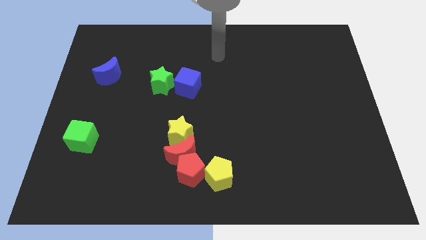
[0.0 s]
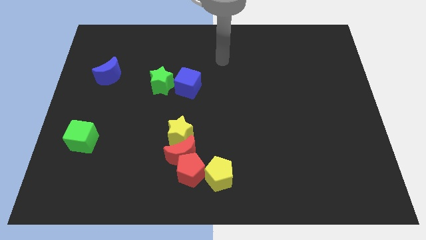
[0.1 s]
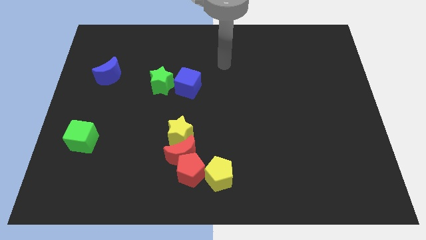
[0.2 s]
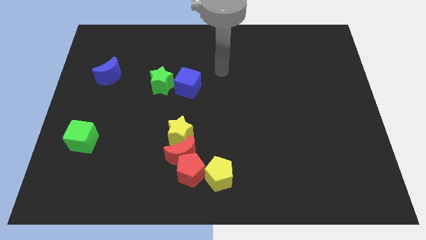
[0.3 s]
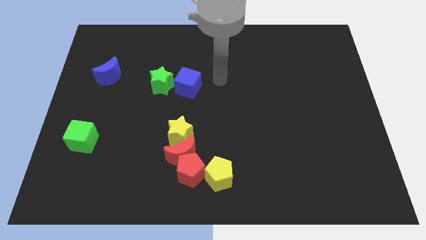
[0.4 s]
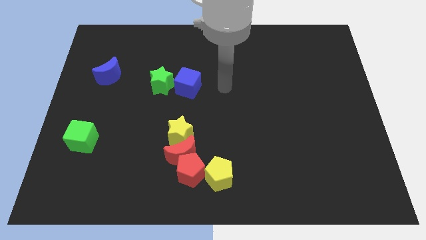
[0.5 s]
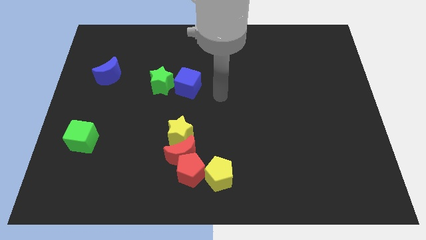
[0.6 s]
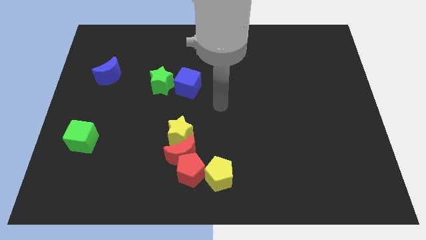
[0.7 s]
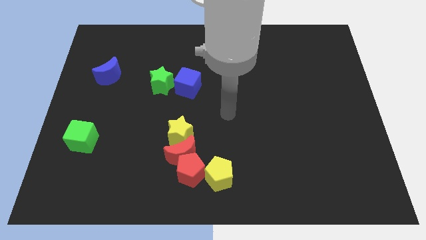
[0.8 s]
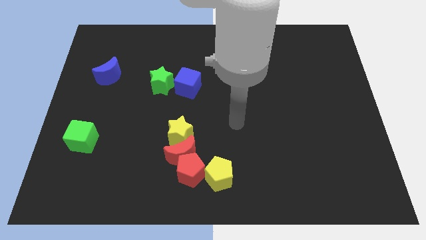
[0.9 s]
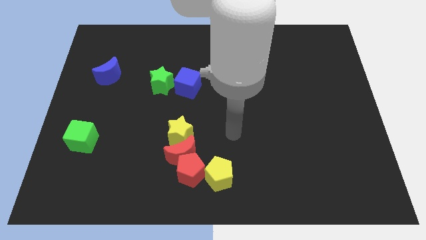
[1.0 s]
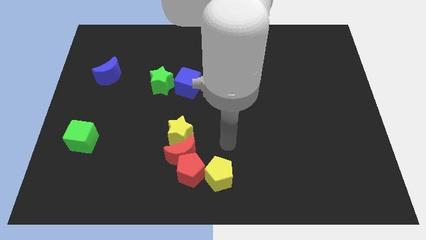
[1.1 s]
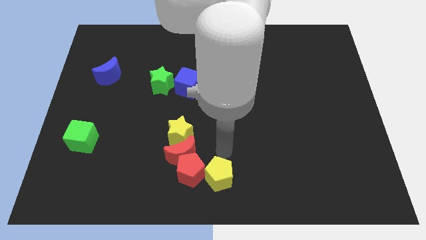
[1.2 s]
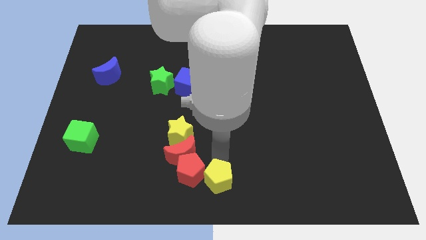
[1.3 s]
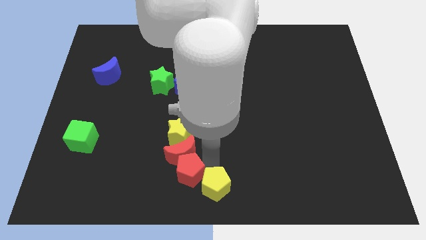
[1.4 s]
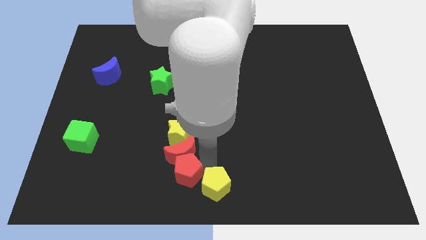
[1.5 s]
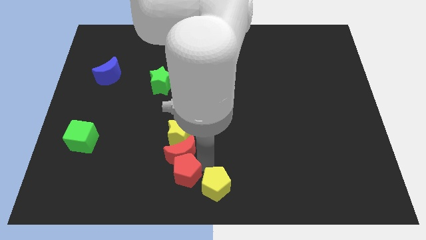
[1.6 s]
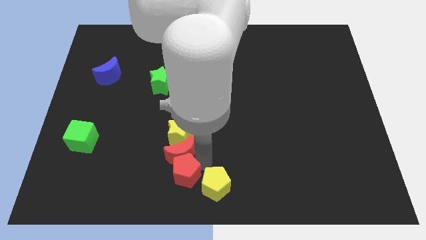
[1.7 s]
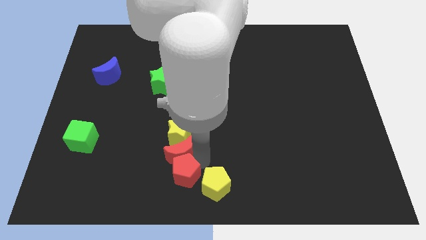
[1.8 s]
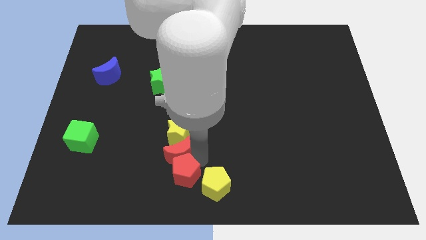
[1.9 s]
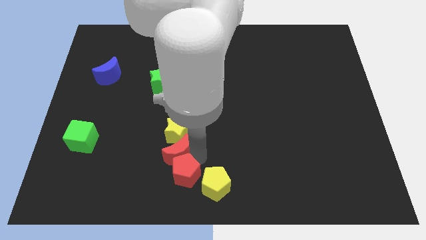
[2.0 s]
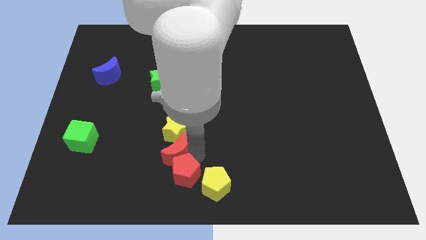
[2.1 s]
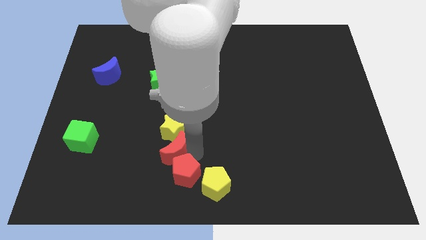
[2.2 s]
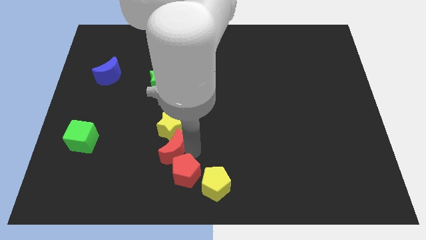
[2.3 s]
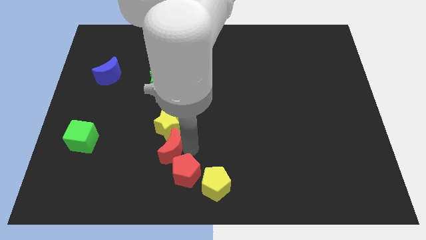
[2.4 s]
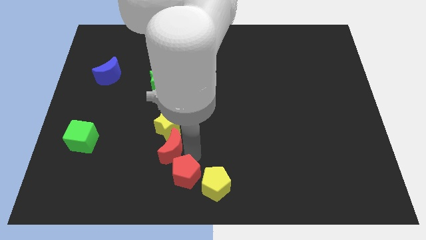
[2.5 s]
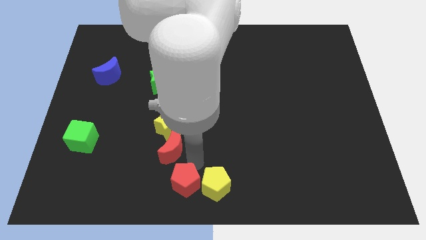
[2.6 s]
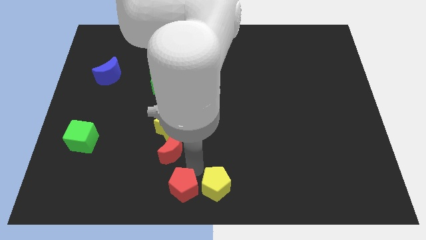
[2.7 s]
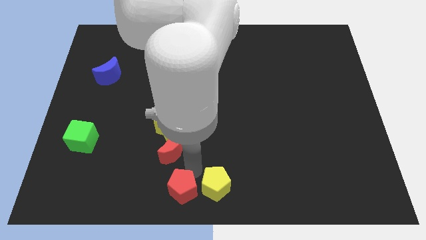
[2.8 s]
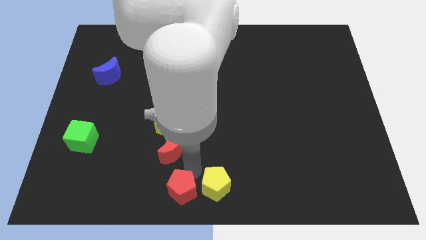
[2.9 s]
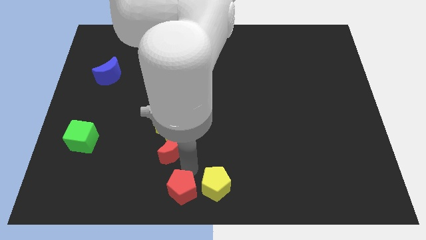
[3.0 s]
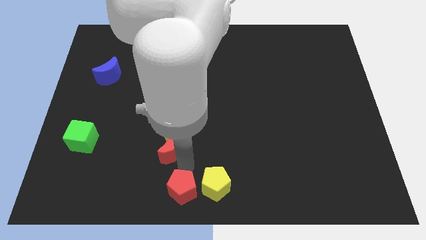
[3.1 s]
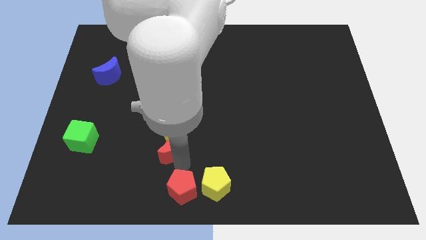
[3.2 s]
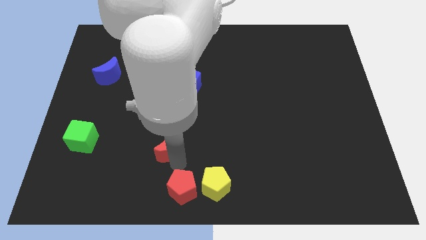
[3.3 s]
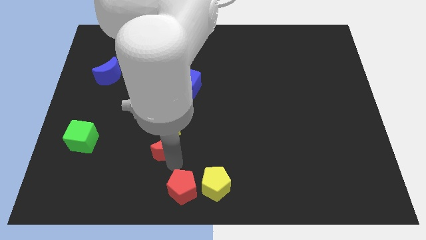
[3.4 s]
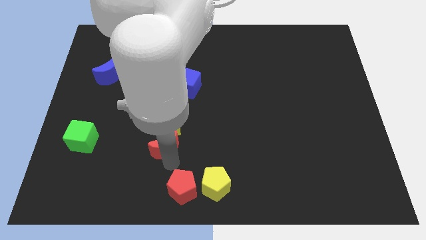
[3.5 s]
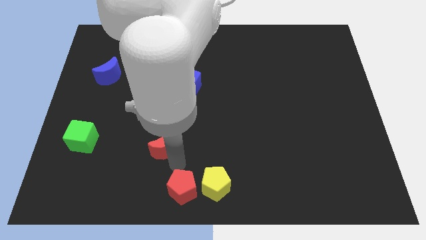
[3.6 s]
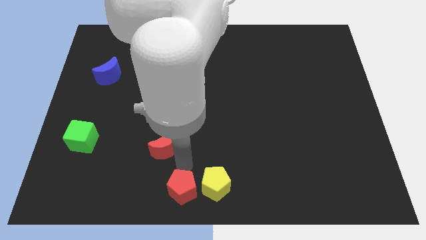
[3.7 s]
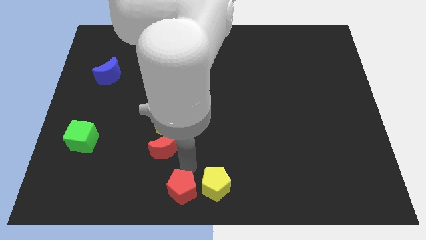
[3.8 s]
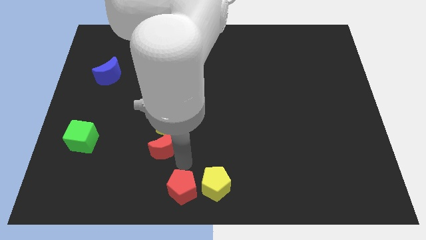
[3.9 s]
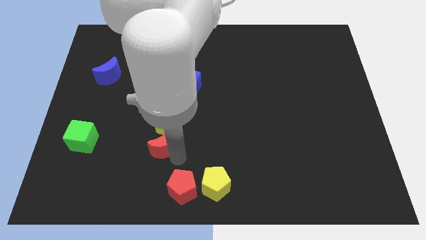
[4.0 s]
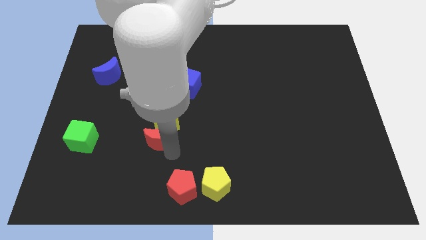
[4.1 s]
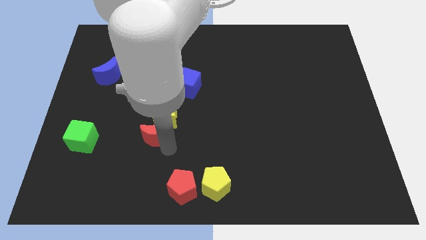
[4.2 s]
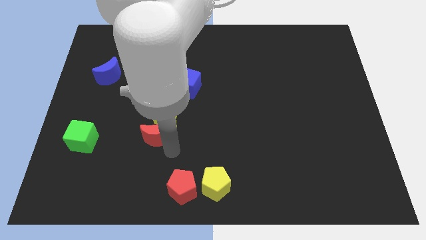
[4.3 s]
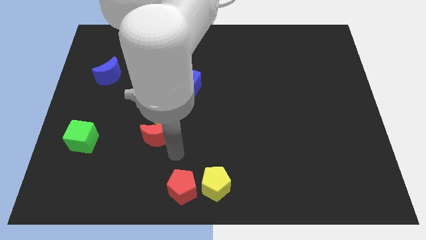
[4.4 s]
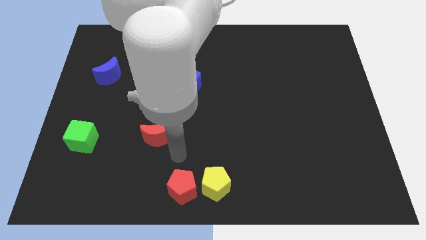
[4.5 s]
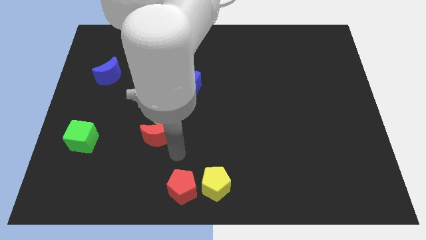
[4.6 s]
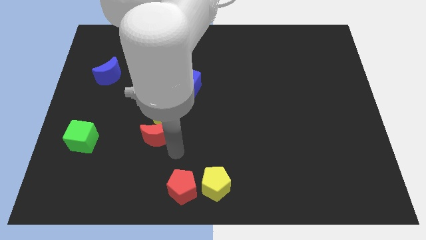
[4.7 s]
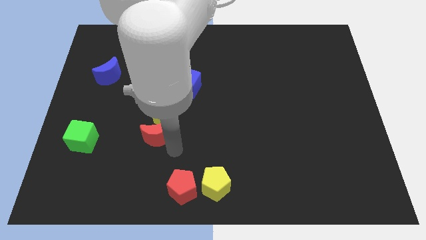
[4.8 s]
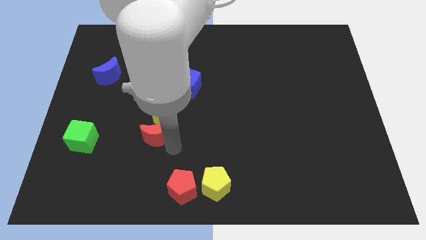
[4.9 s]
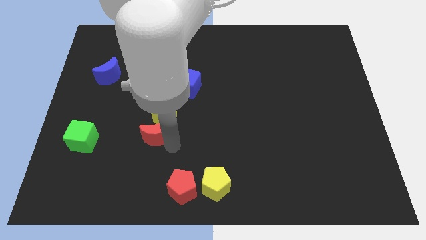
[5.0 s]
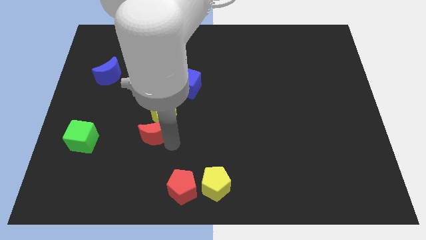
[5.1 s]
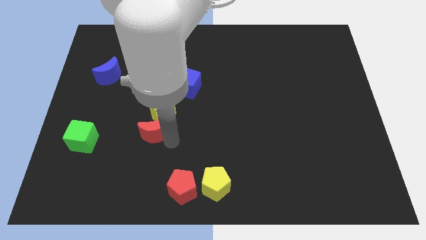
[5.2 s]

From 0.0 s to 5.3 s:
separate the red moon from the clump

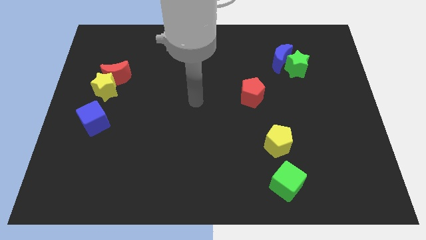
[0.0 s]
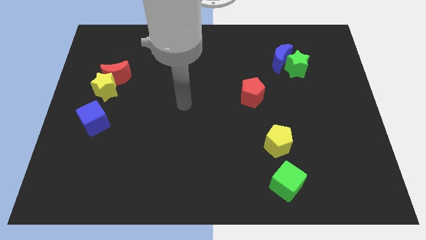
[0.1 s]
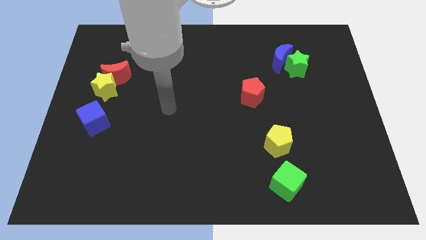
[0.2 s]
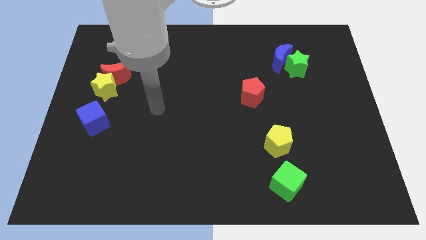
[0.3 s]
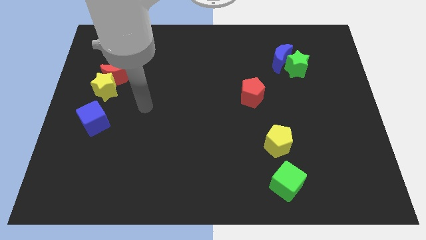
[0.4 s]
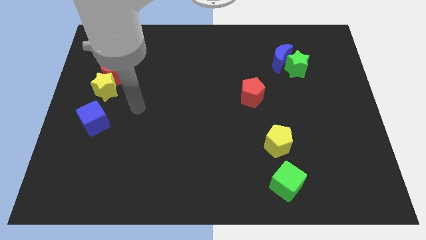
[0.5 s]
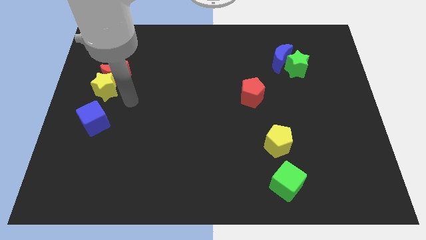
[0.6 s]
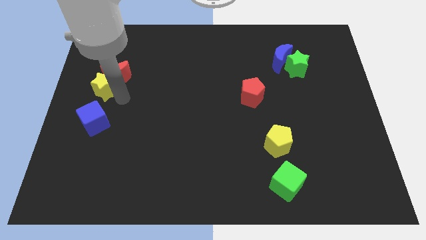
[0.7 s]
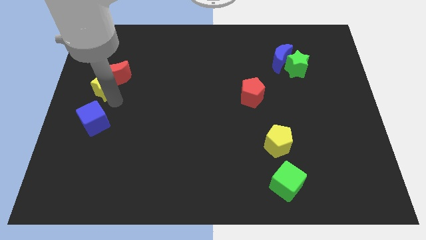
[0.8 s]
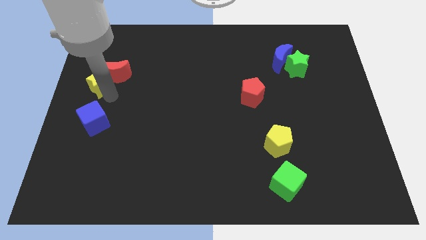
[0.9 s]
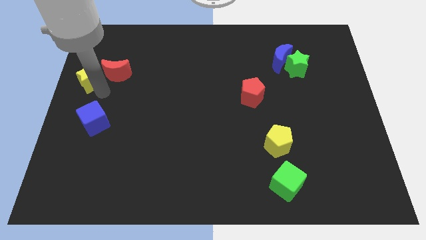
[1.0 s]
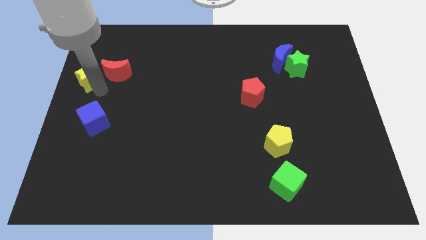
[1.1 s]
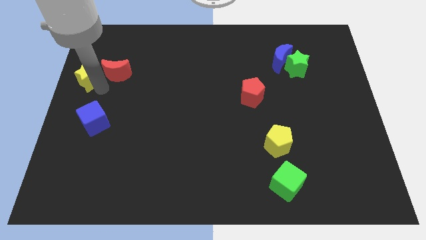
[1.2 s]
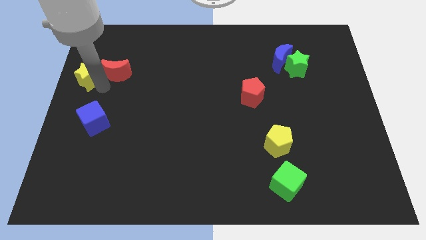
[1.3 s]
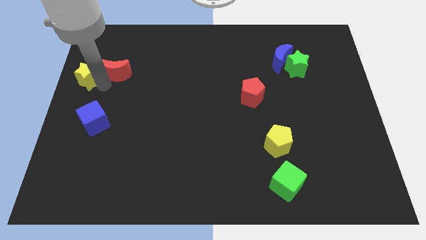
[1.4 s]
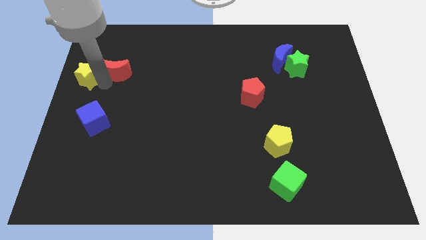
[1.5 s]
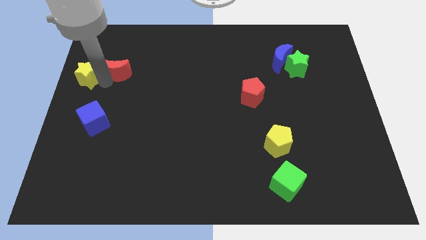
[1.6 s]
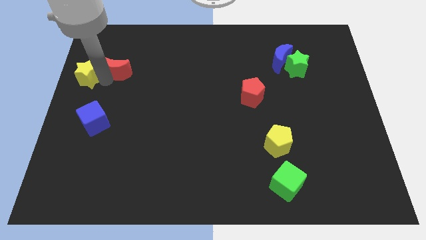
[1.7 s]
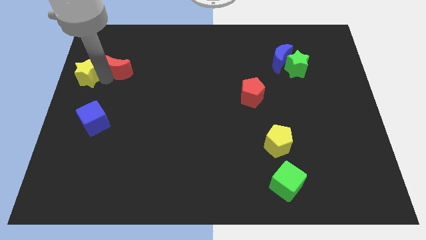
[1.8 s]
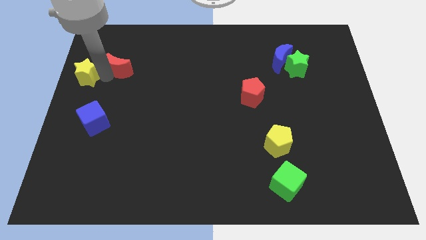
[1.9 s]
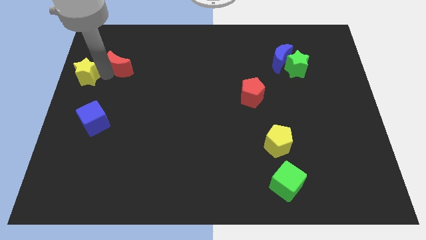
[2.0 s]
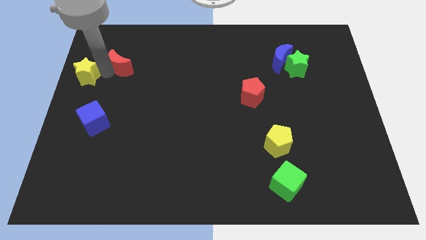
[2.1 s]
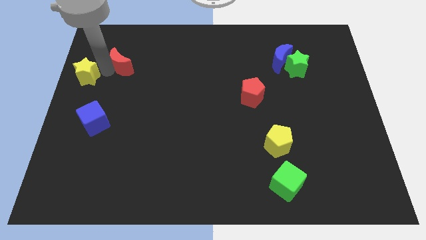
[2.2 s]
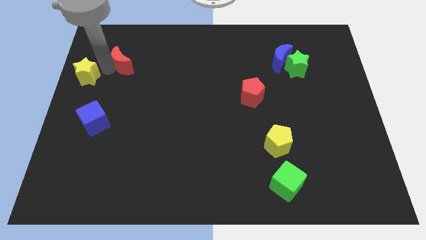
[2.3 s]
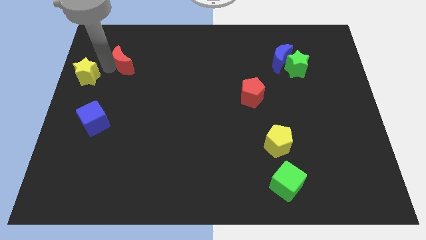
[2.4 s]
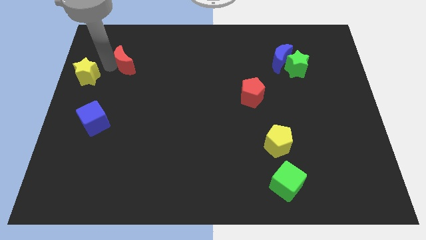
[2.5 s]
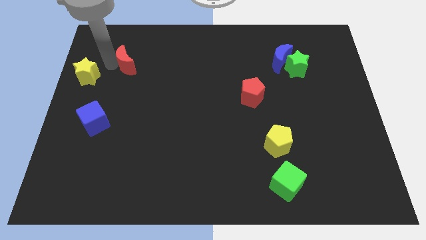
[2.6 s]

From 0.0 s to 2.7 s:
pull the red moon apart from the yellow star

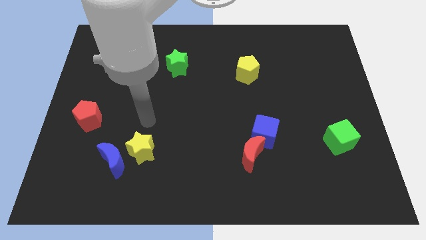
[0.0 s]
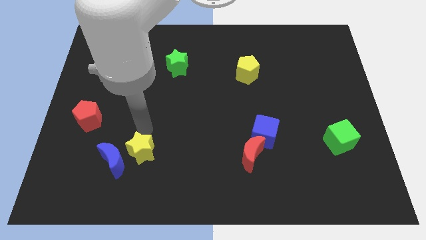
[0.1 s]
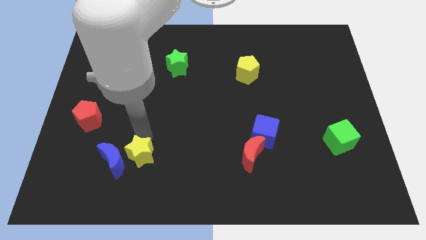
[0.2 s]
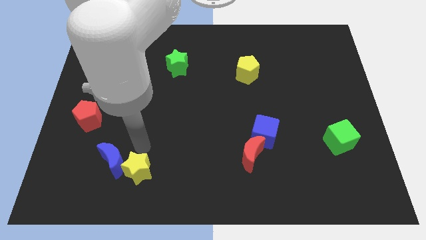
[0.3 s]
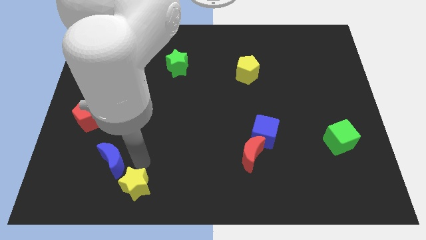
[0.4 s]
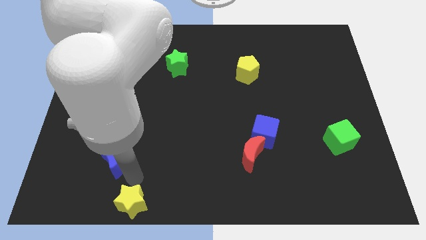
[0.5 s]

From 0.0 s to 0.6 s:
separate the blue moon from the yellow star

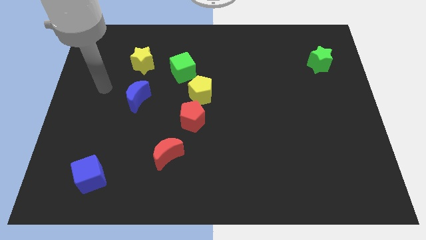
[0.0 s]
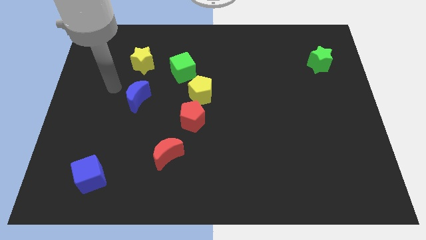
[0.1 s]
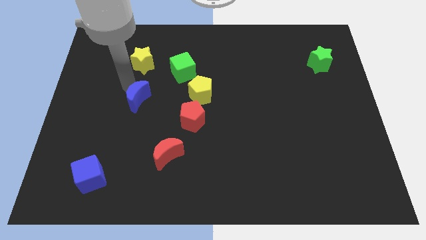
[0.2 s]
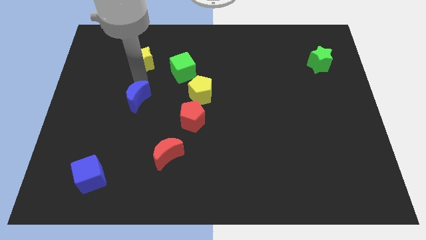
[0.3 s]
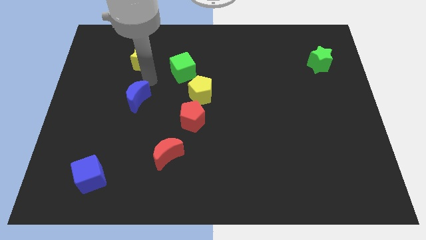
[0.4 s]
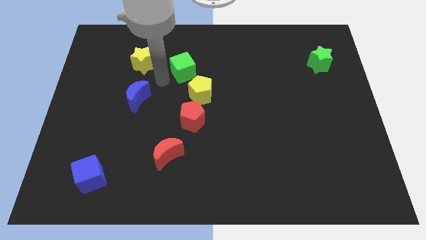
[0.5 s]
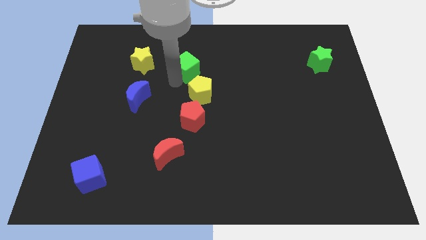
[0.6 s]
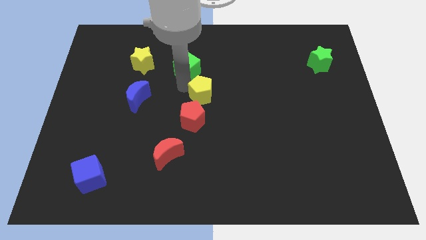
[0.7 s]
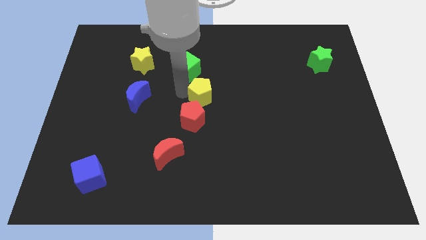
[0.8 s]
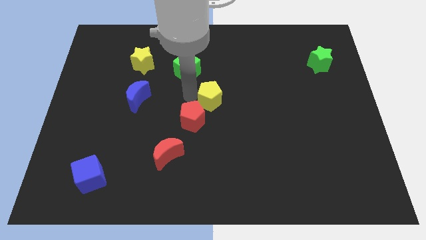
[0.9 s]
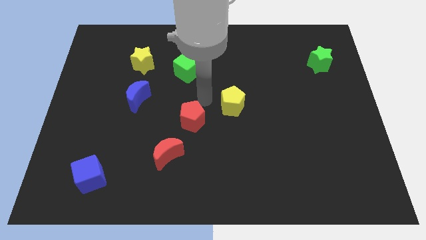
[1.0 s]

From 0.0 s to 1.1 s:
separate the red pentagon from the yellow pentagon
